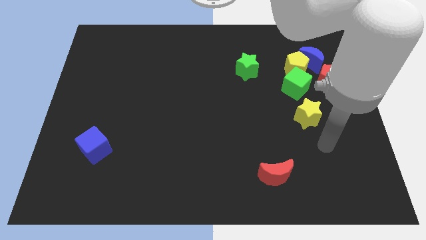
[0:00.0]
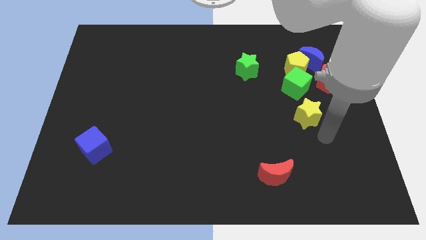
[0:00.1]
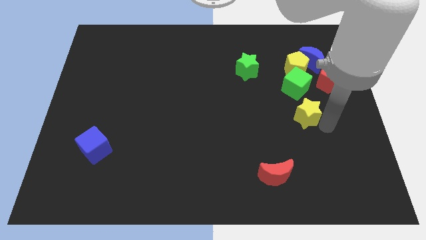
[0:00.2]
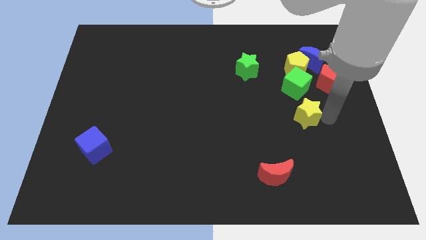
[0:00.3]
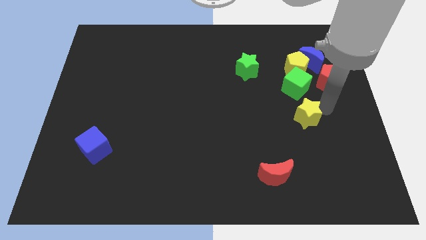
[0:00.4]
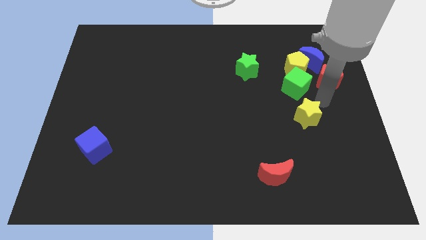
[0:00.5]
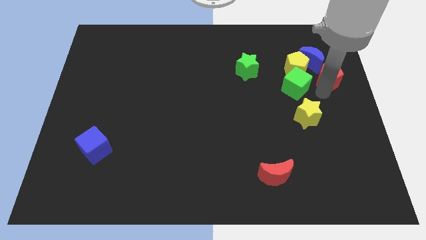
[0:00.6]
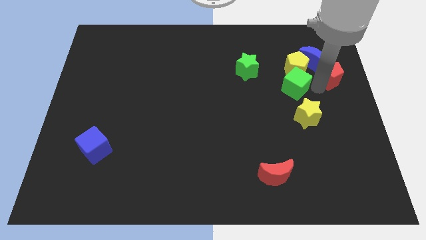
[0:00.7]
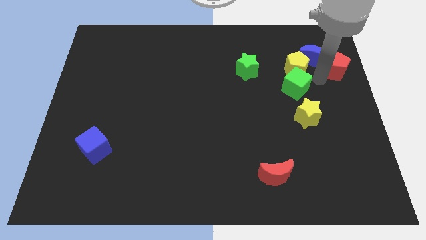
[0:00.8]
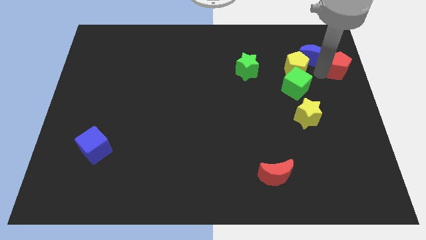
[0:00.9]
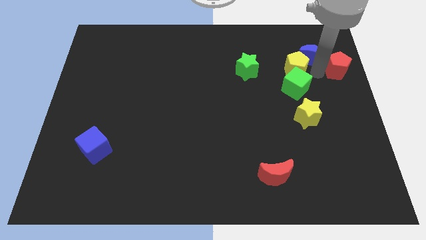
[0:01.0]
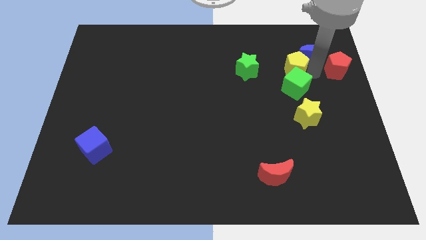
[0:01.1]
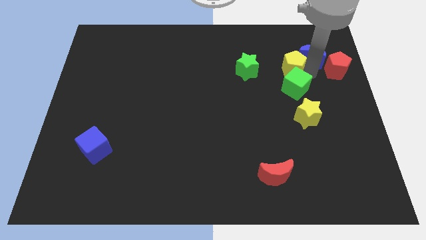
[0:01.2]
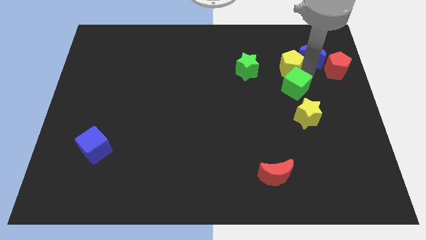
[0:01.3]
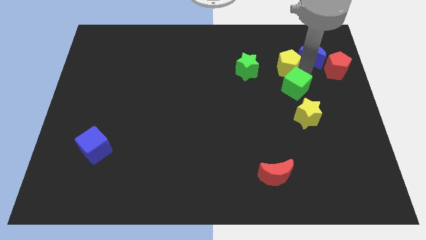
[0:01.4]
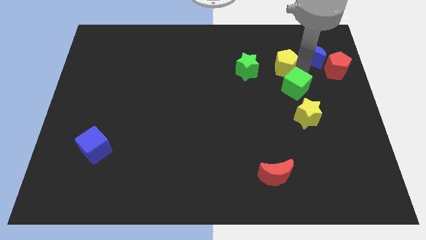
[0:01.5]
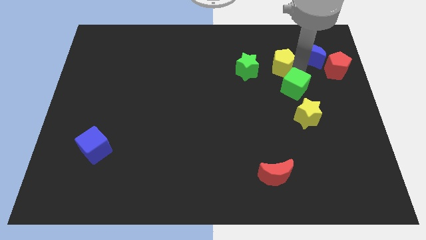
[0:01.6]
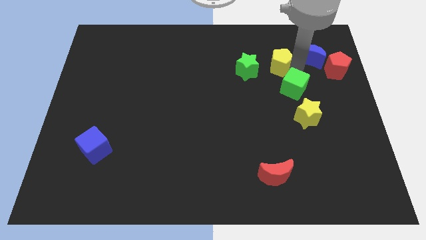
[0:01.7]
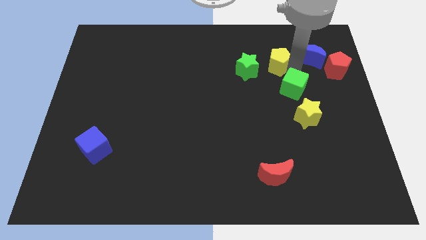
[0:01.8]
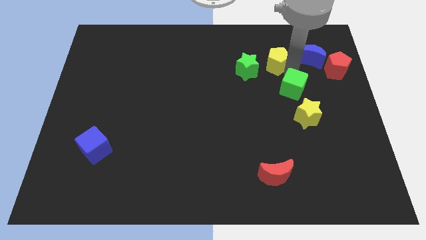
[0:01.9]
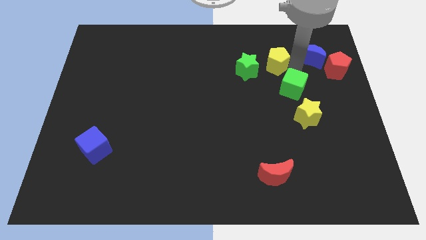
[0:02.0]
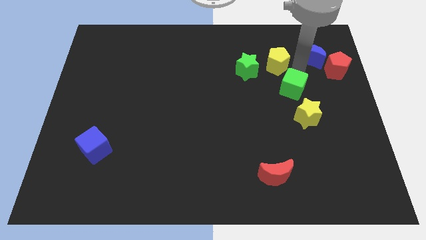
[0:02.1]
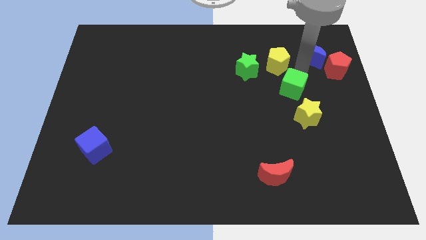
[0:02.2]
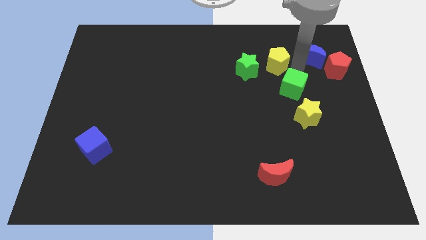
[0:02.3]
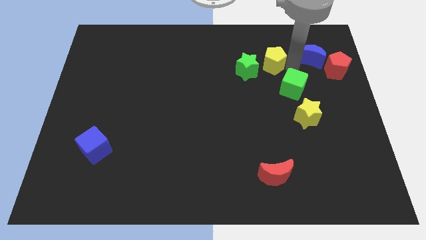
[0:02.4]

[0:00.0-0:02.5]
pull the yellow pentagon apart from the blue moon, green cube, and red pentagon

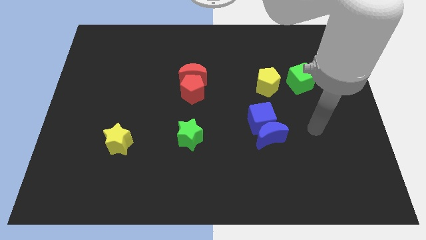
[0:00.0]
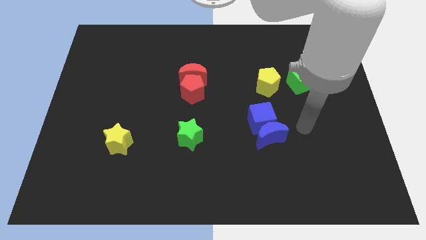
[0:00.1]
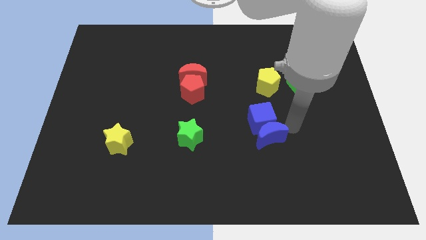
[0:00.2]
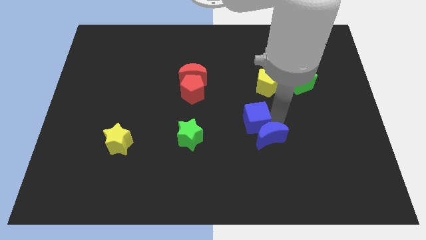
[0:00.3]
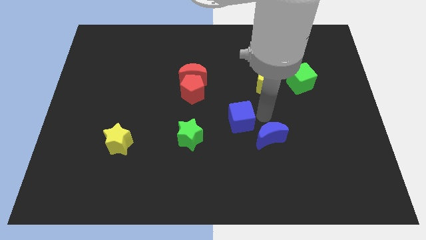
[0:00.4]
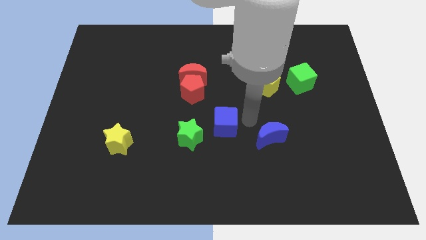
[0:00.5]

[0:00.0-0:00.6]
move the blue moon away from the blue cube

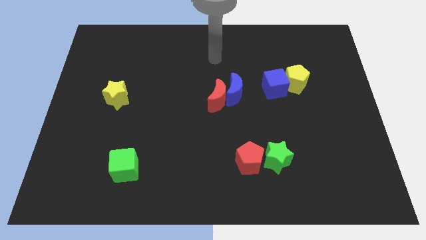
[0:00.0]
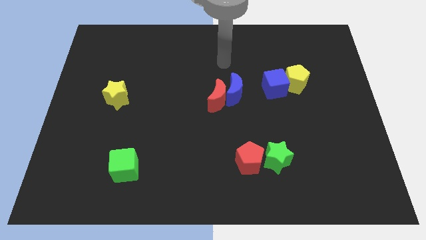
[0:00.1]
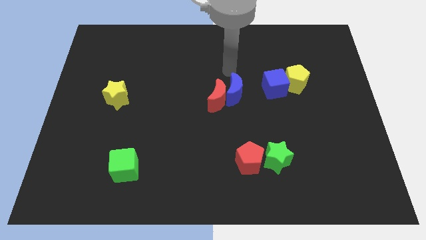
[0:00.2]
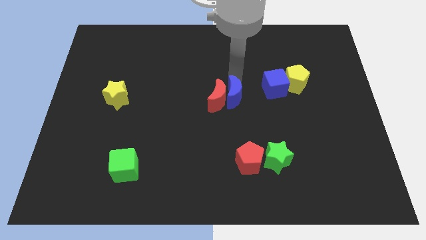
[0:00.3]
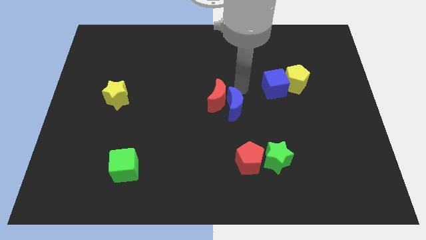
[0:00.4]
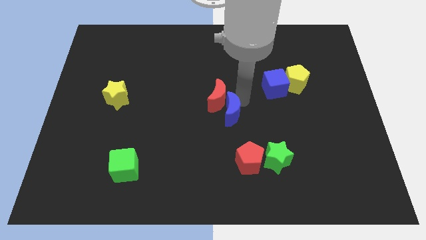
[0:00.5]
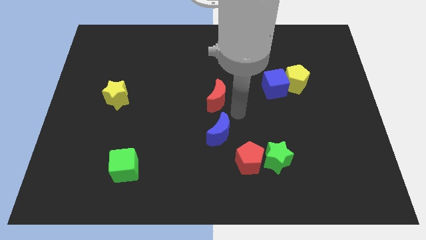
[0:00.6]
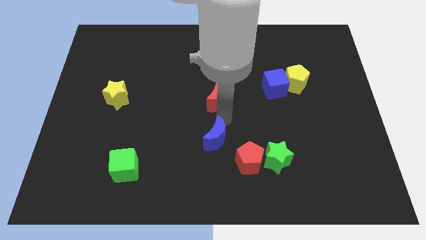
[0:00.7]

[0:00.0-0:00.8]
separate the red moon from the blue moon

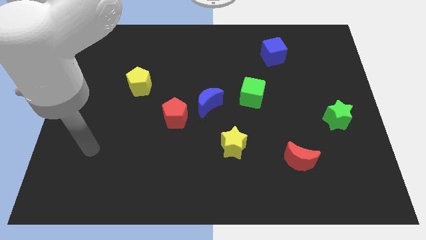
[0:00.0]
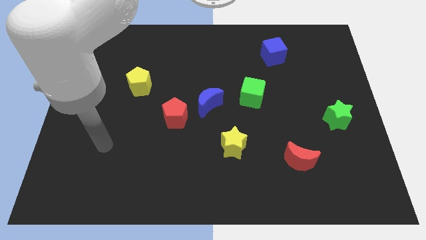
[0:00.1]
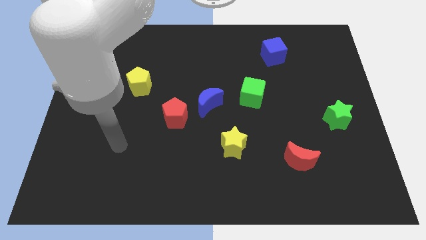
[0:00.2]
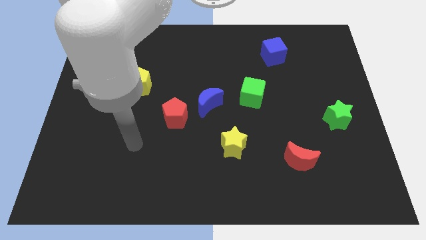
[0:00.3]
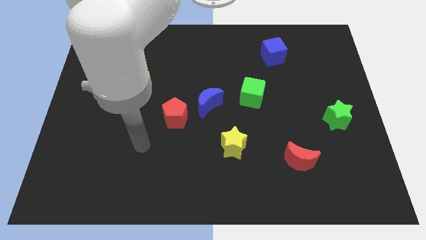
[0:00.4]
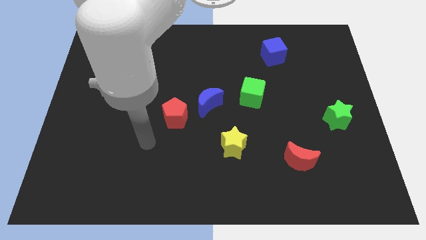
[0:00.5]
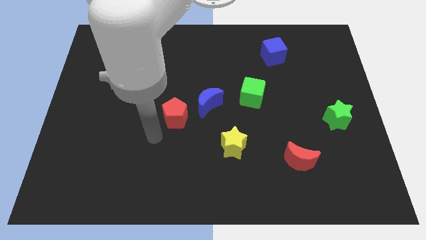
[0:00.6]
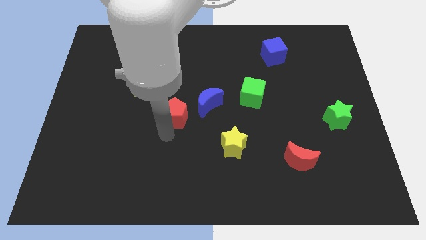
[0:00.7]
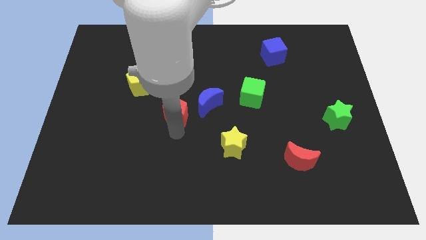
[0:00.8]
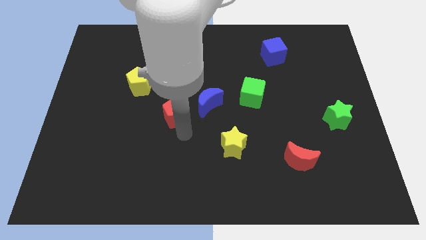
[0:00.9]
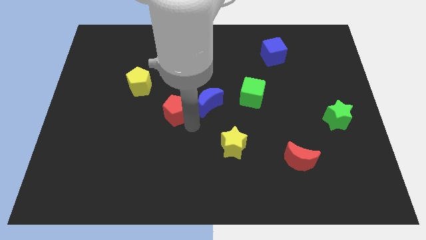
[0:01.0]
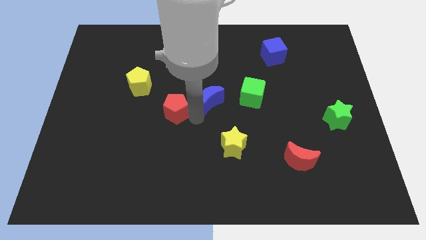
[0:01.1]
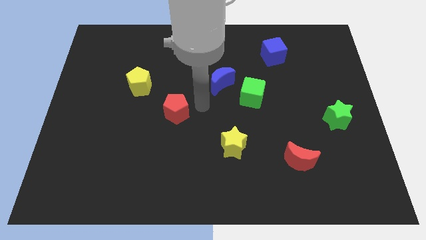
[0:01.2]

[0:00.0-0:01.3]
move the red pentagon away from the blue moon

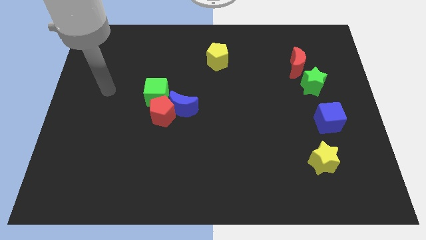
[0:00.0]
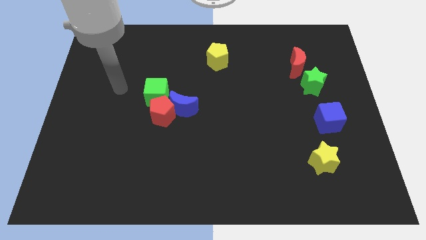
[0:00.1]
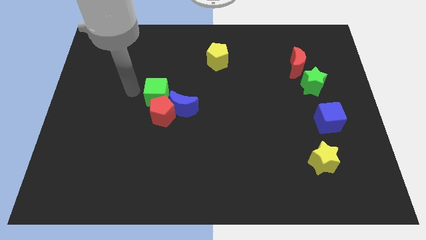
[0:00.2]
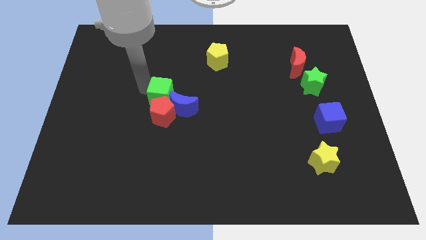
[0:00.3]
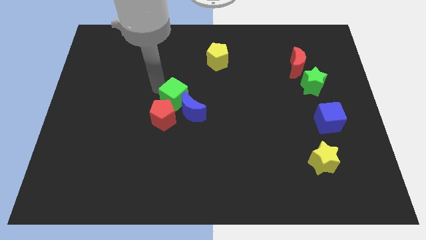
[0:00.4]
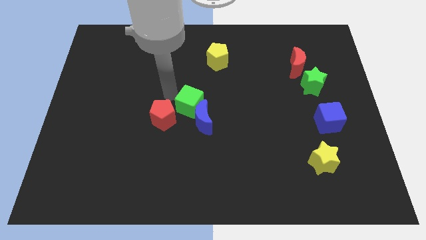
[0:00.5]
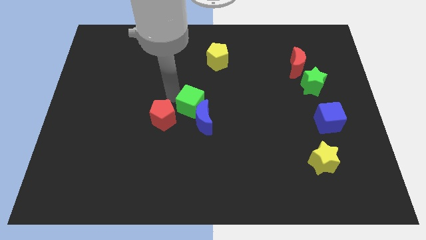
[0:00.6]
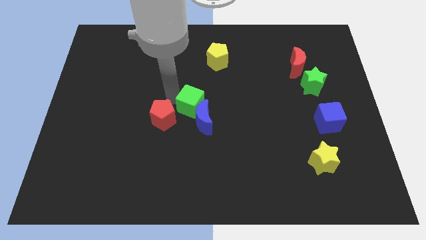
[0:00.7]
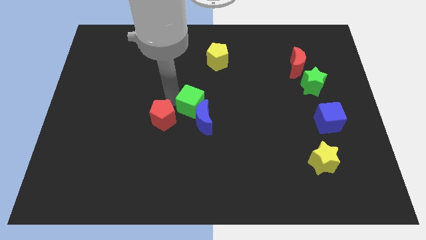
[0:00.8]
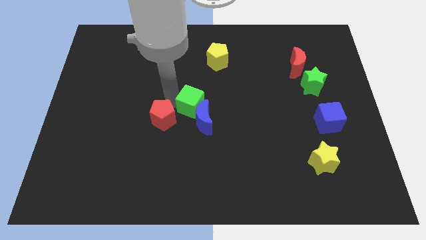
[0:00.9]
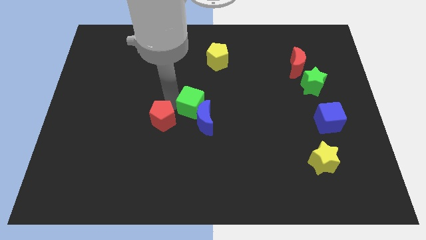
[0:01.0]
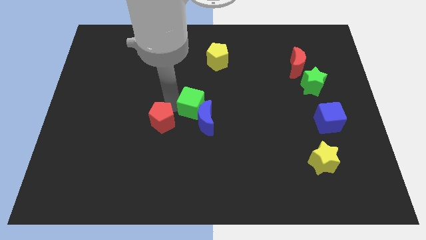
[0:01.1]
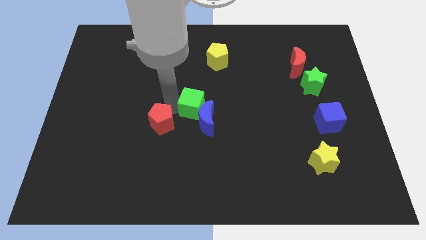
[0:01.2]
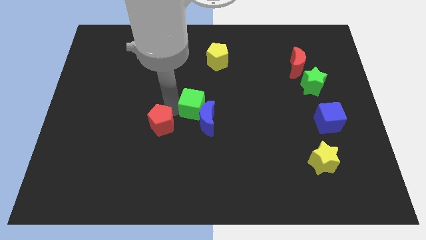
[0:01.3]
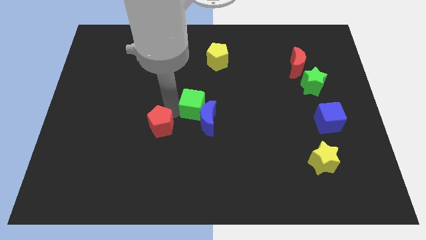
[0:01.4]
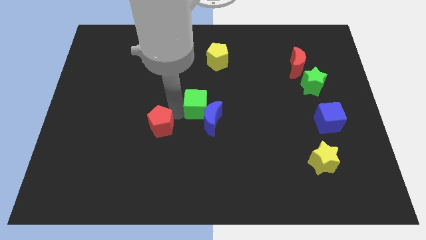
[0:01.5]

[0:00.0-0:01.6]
separate the red pentagon from the blue moon and green cube

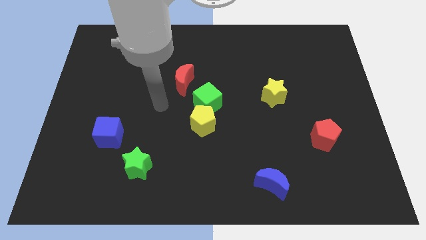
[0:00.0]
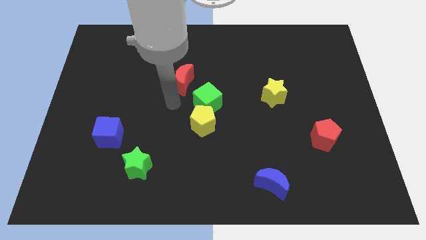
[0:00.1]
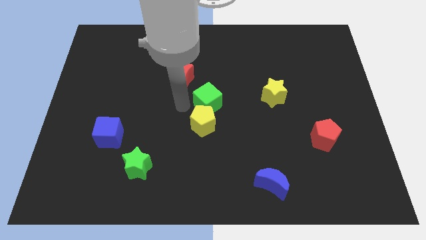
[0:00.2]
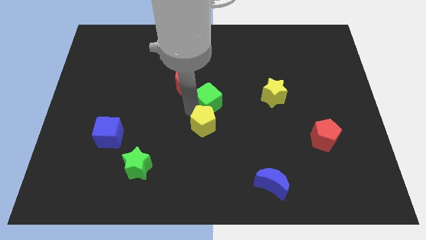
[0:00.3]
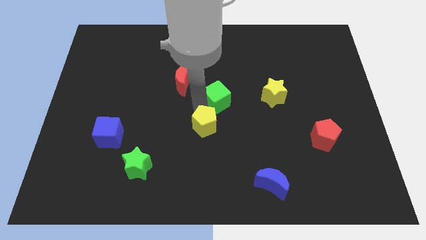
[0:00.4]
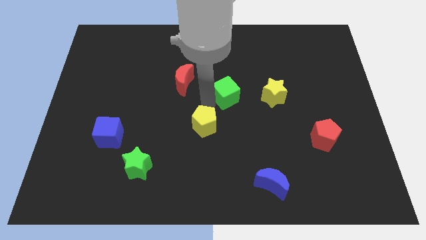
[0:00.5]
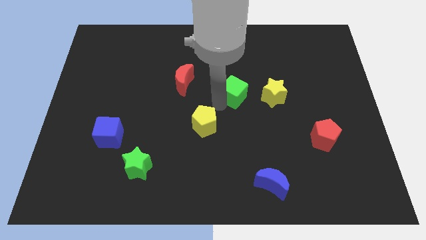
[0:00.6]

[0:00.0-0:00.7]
separate the yellow pentagon from the green cube

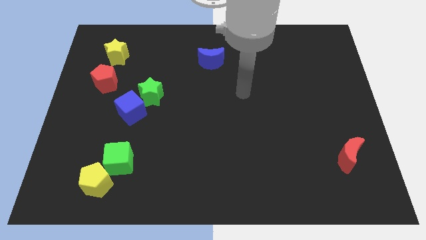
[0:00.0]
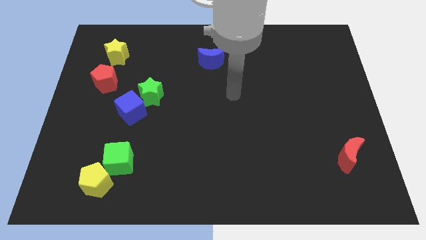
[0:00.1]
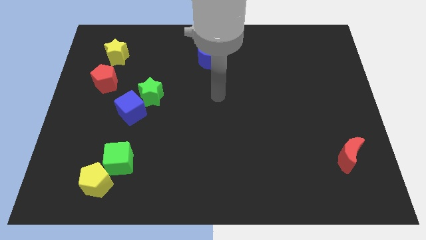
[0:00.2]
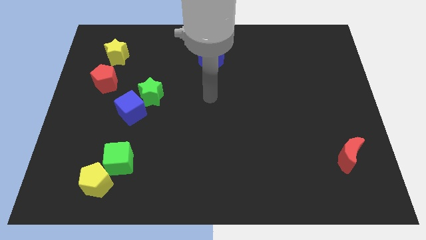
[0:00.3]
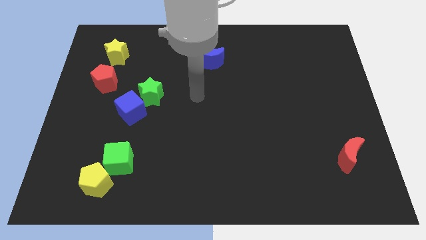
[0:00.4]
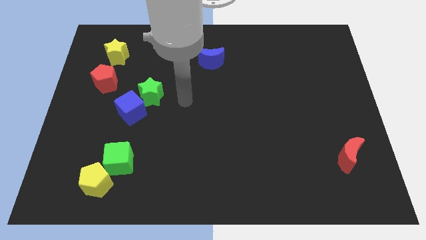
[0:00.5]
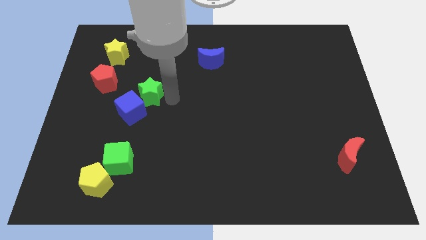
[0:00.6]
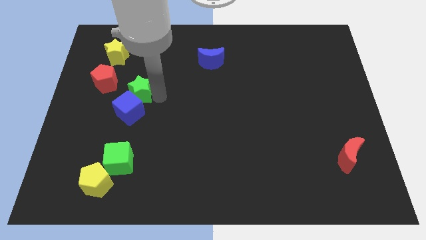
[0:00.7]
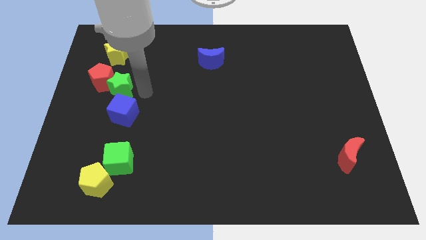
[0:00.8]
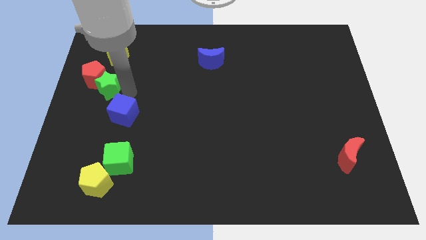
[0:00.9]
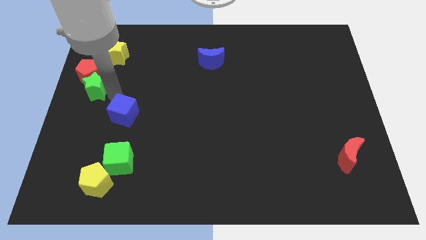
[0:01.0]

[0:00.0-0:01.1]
pull the blue cube apart from the green star

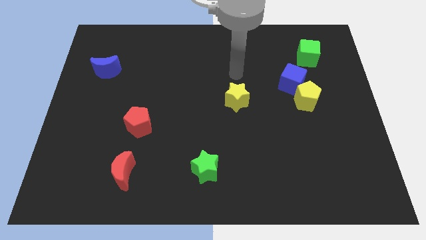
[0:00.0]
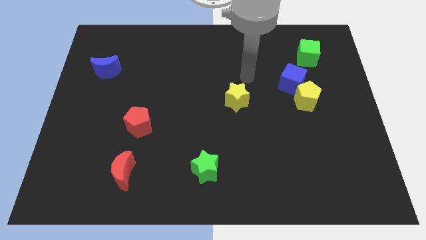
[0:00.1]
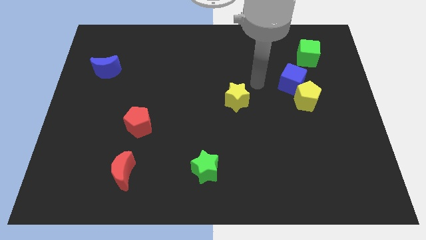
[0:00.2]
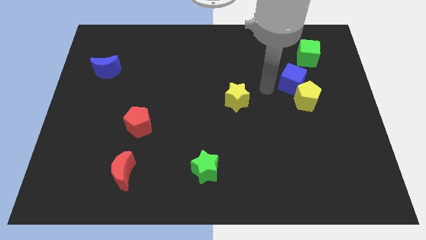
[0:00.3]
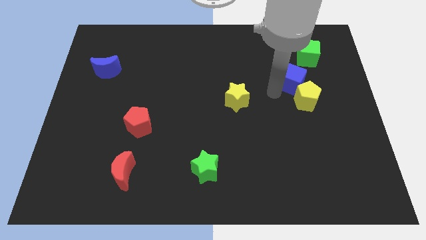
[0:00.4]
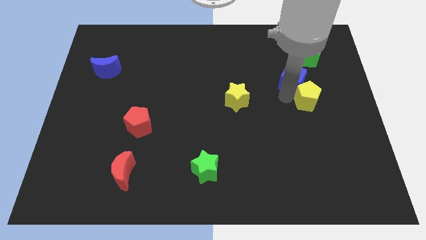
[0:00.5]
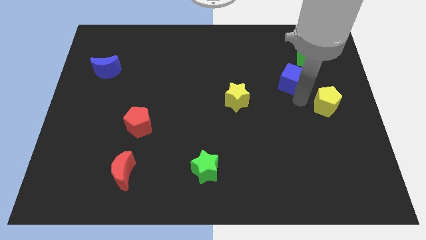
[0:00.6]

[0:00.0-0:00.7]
pull the blue cube apart from the yellow pentagon
